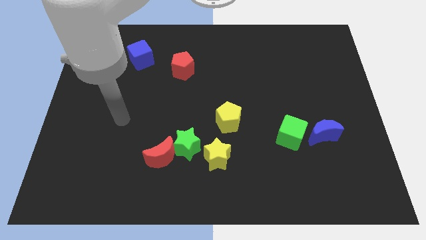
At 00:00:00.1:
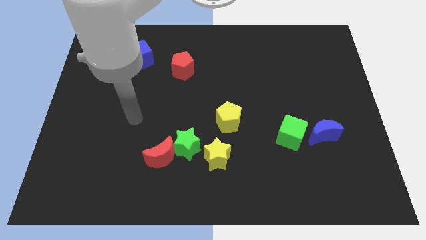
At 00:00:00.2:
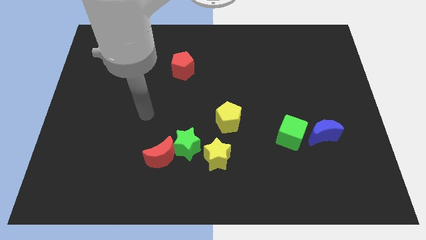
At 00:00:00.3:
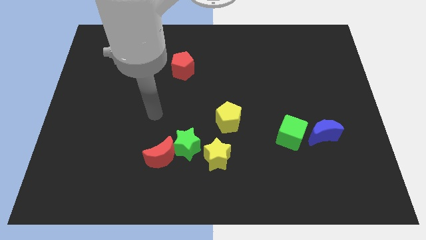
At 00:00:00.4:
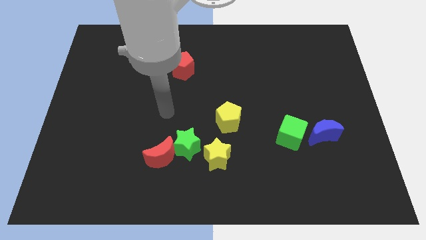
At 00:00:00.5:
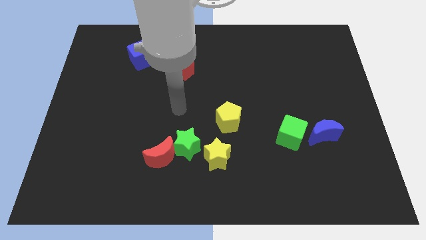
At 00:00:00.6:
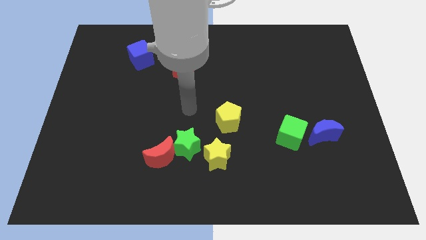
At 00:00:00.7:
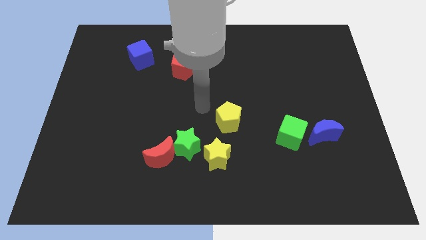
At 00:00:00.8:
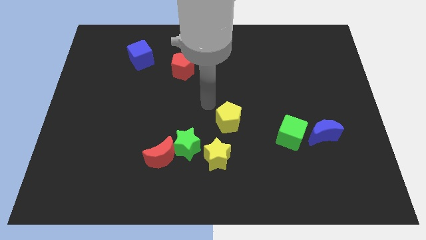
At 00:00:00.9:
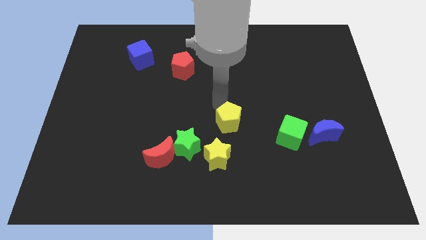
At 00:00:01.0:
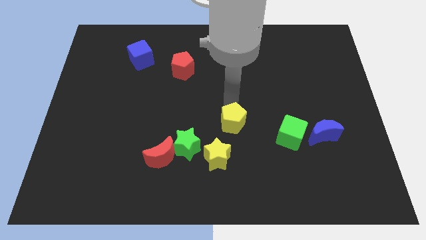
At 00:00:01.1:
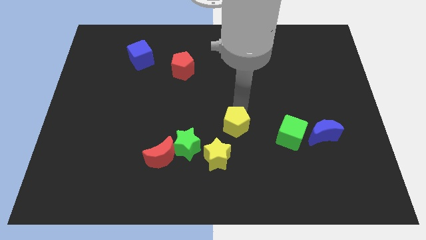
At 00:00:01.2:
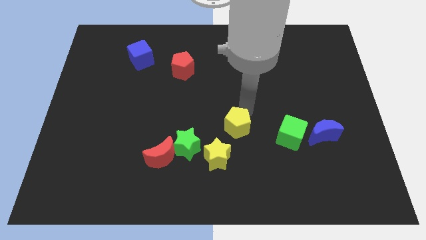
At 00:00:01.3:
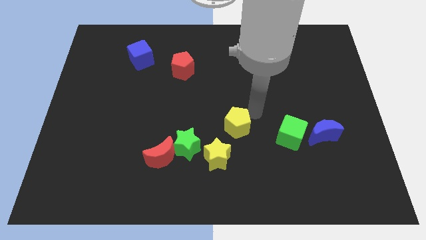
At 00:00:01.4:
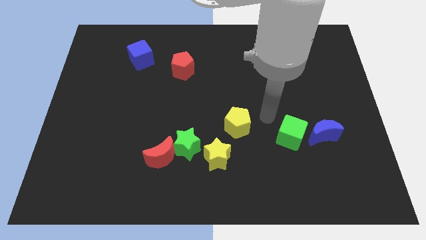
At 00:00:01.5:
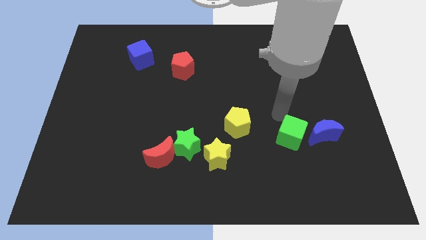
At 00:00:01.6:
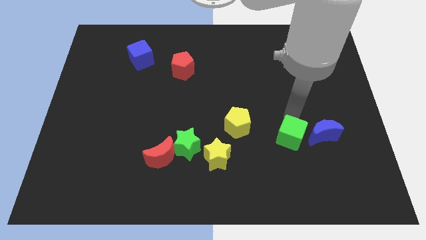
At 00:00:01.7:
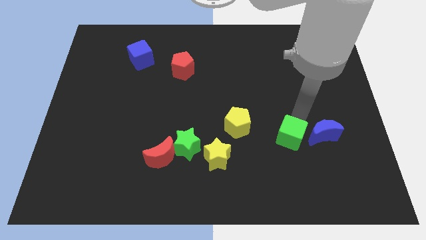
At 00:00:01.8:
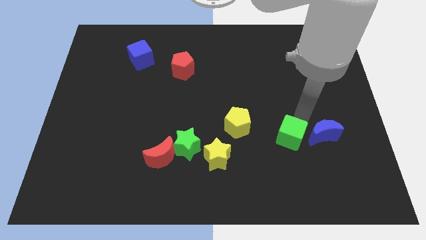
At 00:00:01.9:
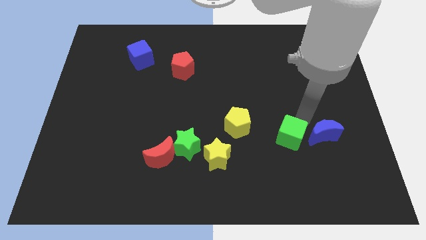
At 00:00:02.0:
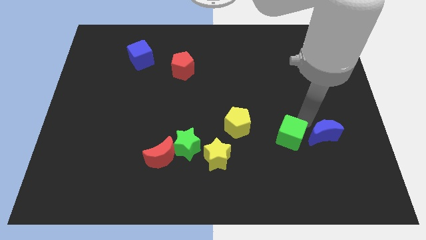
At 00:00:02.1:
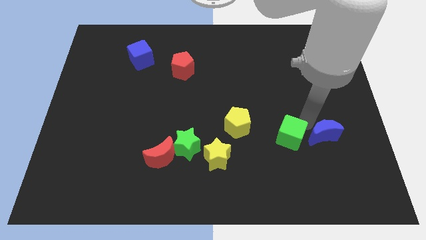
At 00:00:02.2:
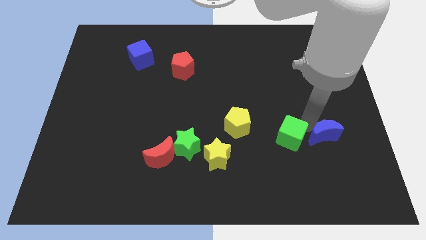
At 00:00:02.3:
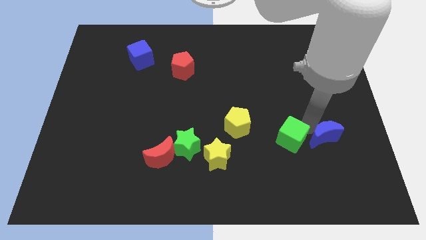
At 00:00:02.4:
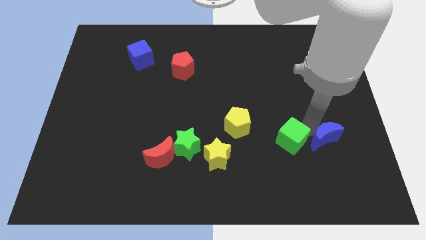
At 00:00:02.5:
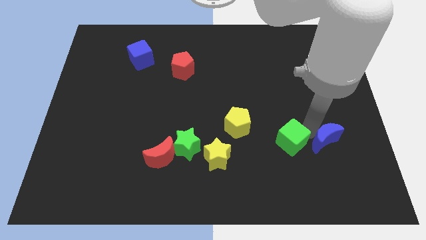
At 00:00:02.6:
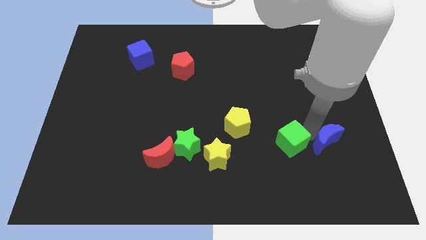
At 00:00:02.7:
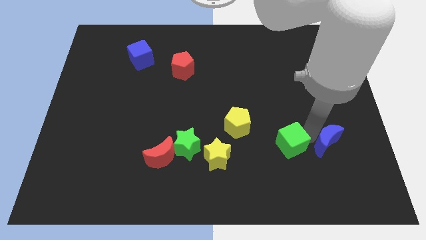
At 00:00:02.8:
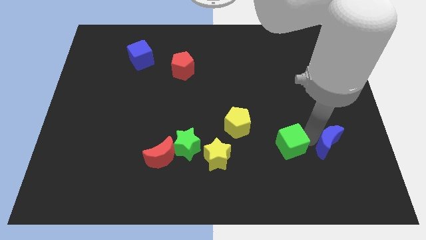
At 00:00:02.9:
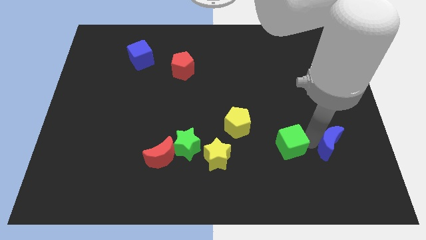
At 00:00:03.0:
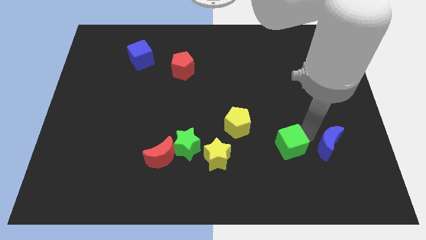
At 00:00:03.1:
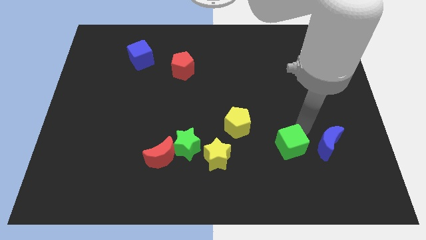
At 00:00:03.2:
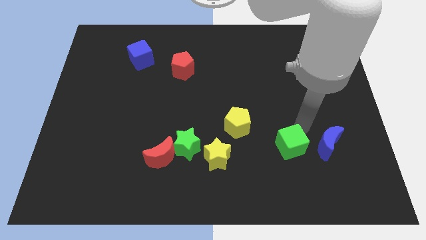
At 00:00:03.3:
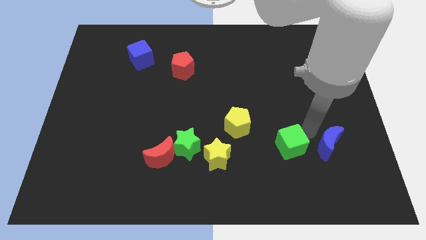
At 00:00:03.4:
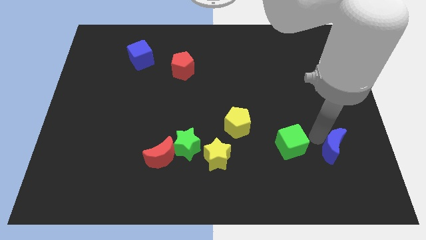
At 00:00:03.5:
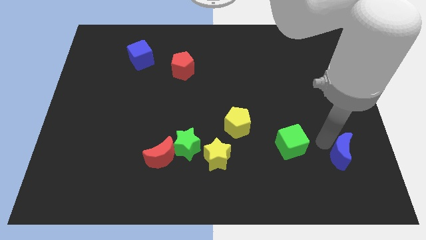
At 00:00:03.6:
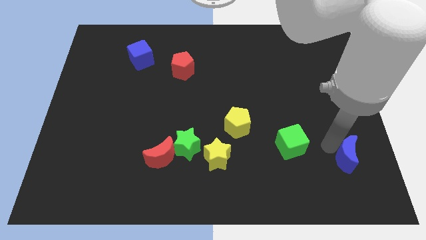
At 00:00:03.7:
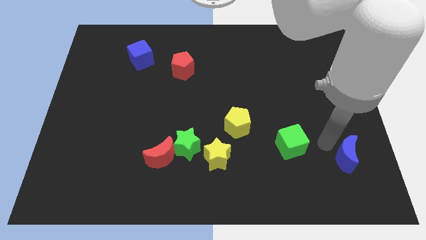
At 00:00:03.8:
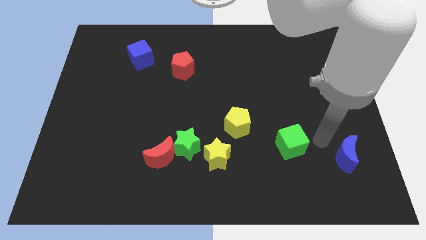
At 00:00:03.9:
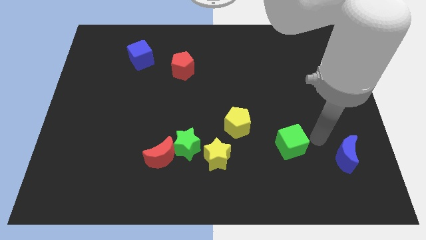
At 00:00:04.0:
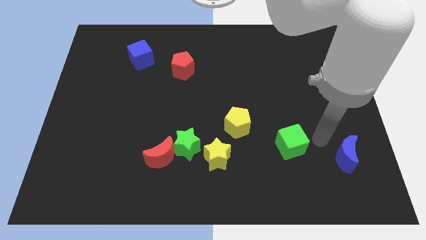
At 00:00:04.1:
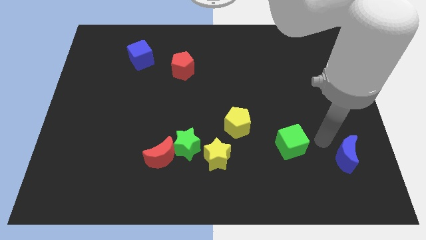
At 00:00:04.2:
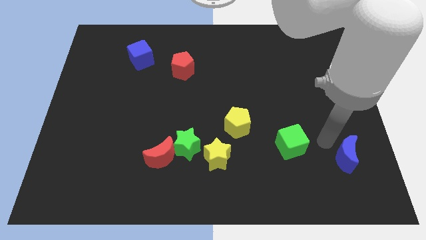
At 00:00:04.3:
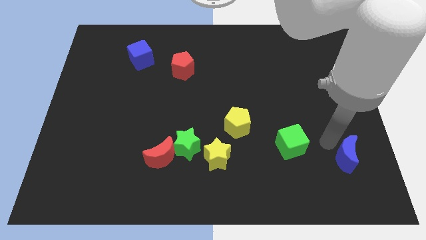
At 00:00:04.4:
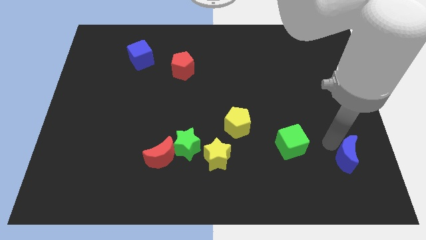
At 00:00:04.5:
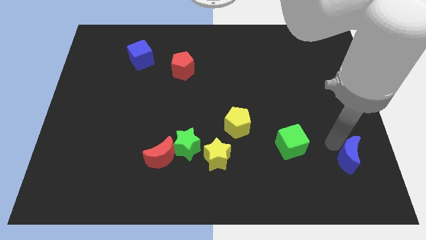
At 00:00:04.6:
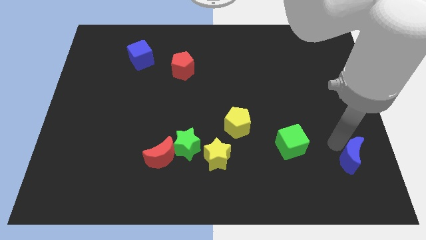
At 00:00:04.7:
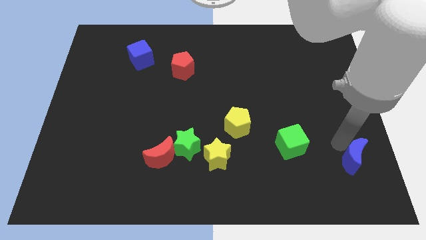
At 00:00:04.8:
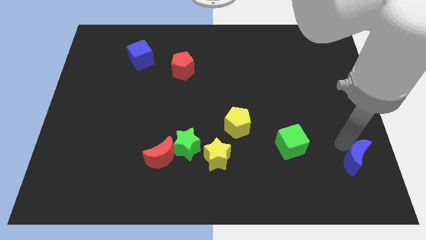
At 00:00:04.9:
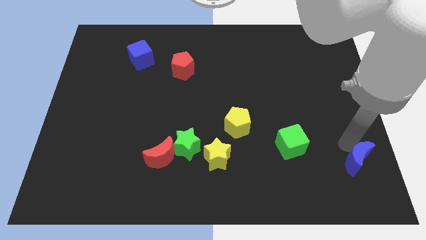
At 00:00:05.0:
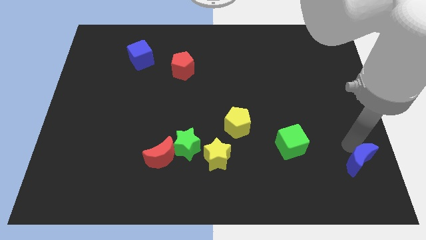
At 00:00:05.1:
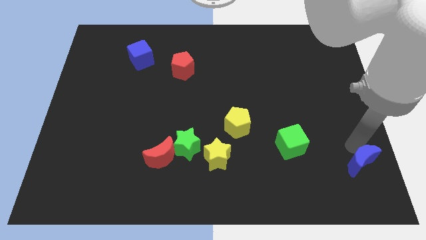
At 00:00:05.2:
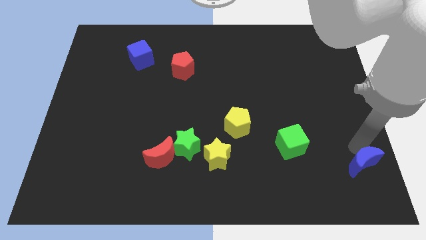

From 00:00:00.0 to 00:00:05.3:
put the blue moon to the bottom right of the board

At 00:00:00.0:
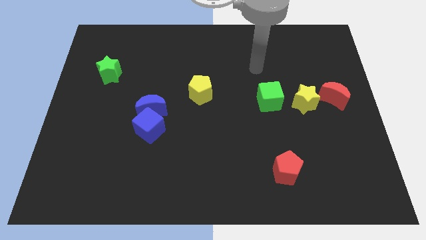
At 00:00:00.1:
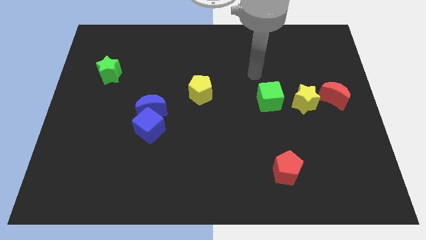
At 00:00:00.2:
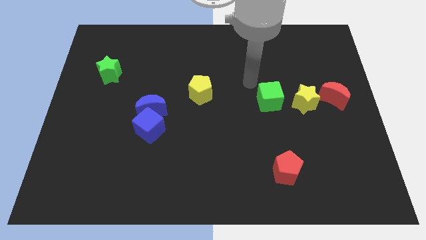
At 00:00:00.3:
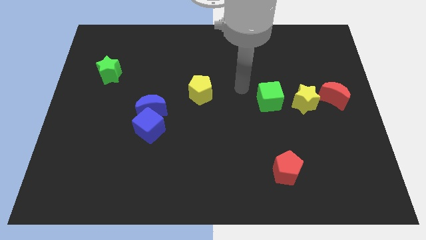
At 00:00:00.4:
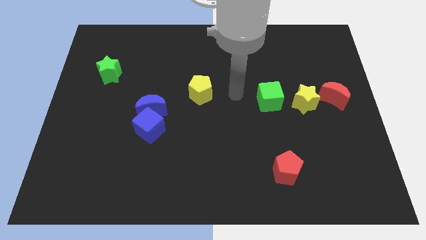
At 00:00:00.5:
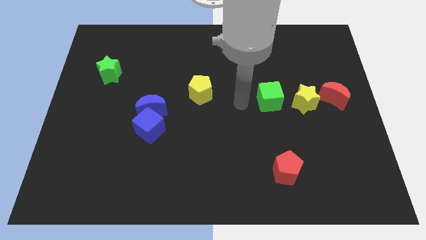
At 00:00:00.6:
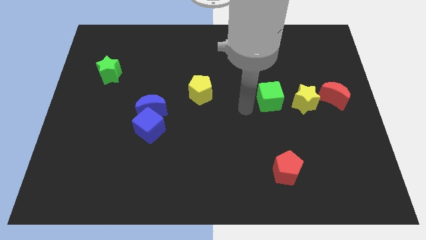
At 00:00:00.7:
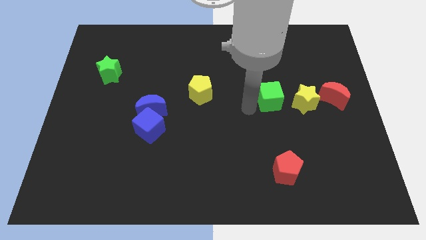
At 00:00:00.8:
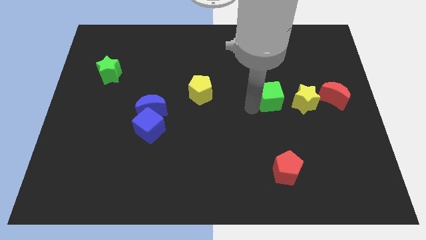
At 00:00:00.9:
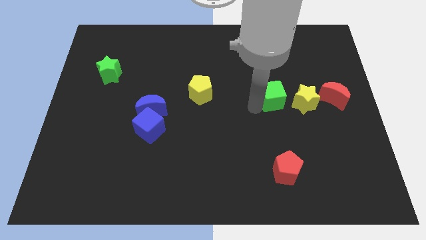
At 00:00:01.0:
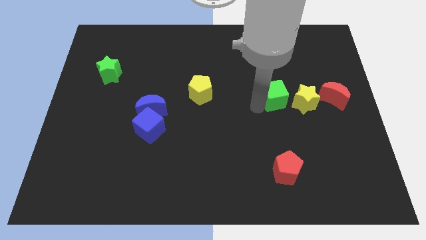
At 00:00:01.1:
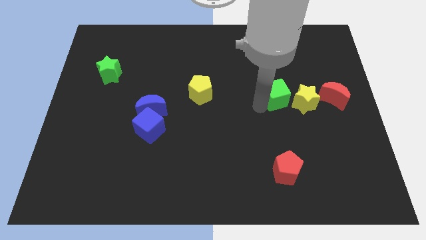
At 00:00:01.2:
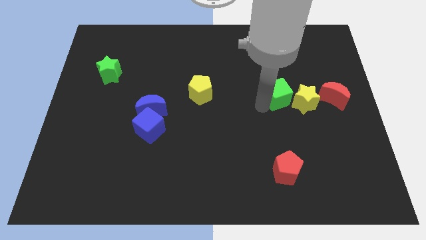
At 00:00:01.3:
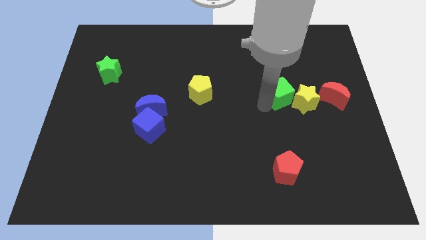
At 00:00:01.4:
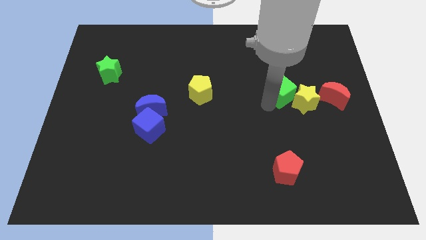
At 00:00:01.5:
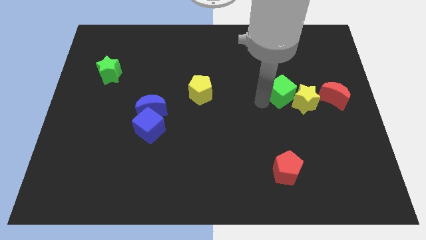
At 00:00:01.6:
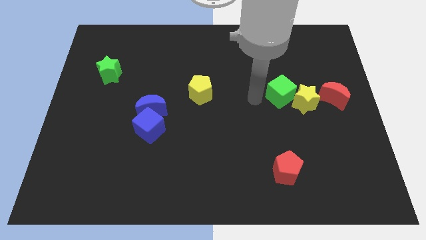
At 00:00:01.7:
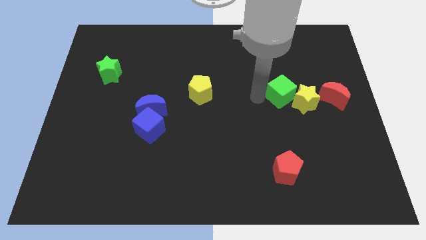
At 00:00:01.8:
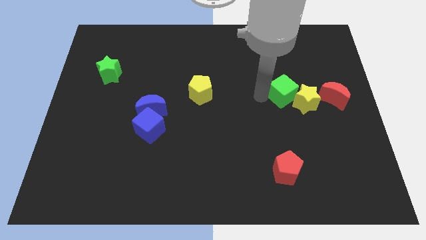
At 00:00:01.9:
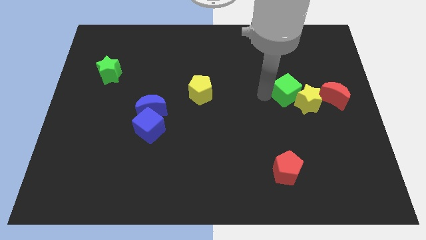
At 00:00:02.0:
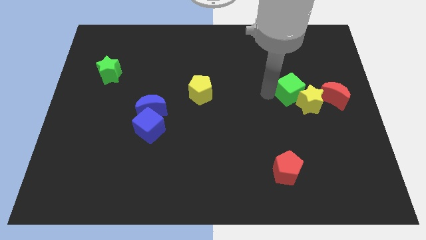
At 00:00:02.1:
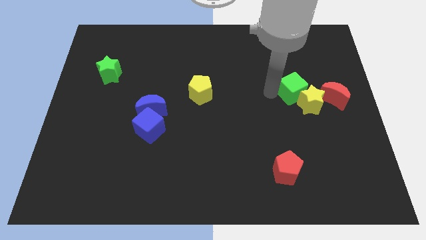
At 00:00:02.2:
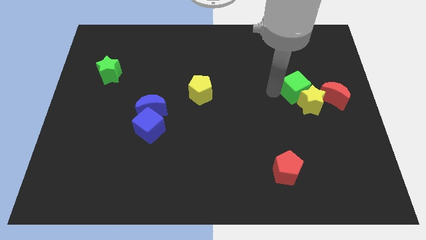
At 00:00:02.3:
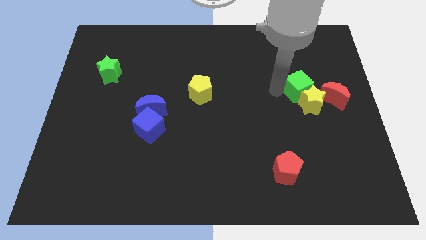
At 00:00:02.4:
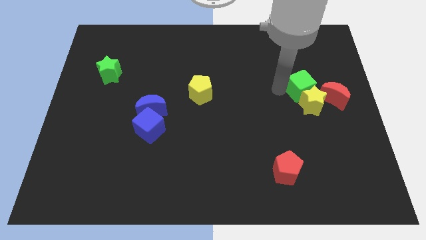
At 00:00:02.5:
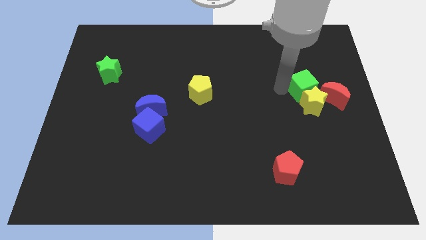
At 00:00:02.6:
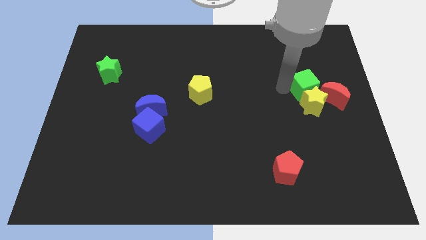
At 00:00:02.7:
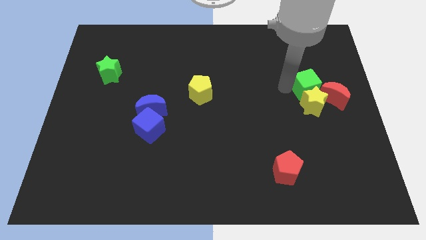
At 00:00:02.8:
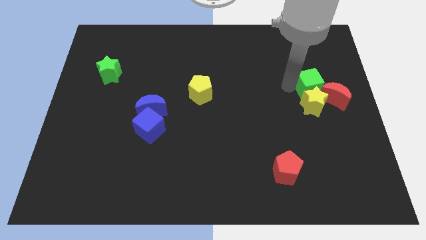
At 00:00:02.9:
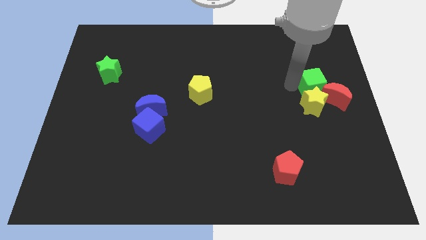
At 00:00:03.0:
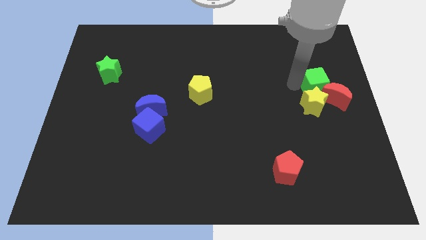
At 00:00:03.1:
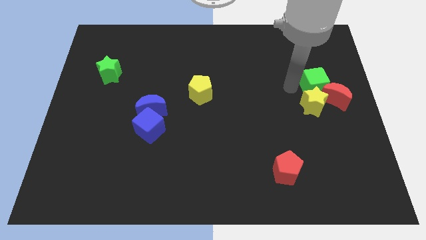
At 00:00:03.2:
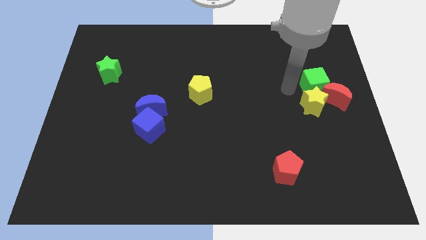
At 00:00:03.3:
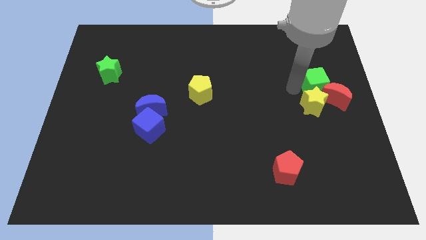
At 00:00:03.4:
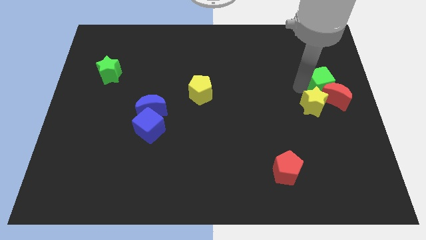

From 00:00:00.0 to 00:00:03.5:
move the green cube to the center right
